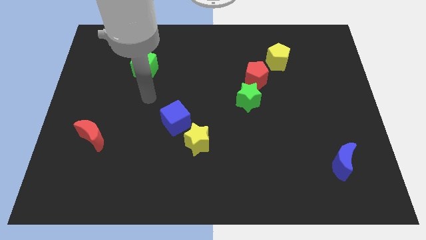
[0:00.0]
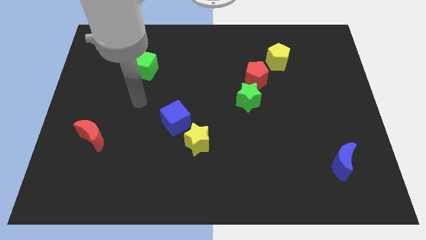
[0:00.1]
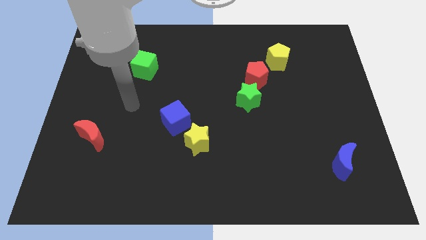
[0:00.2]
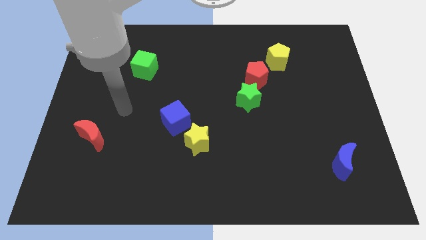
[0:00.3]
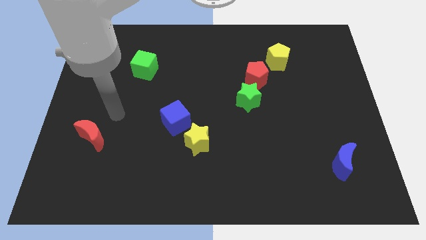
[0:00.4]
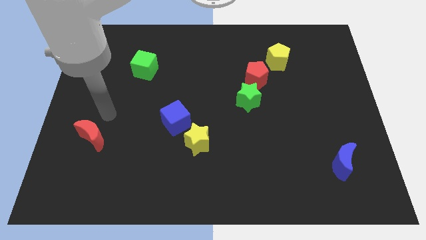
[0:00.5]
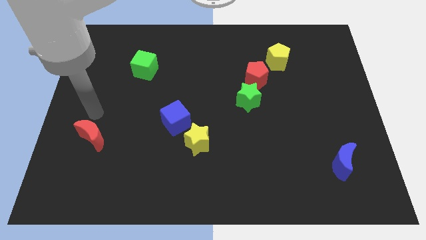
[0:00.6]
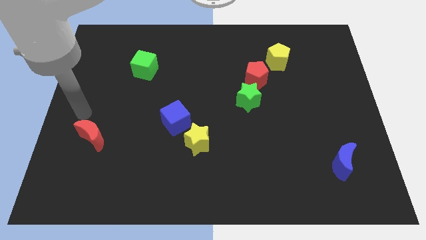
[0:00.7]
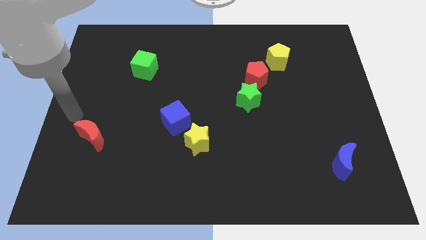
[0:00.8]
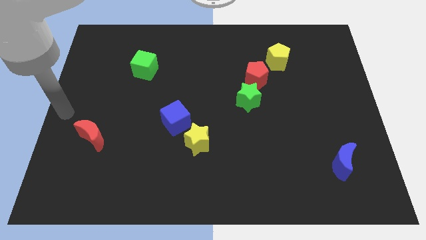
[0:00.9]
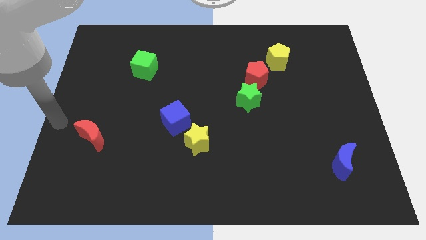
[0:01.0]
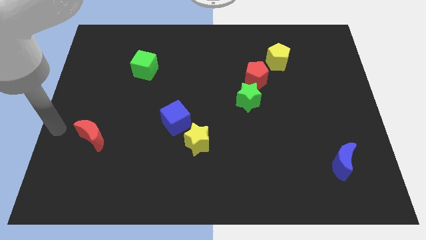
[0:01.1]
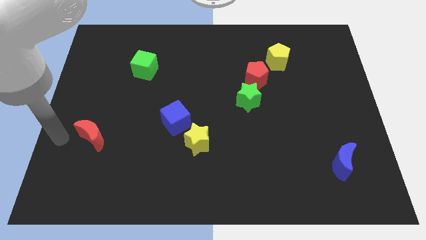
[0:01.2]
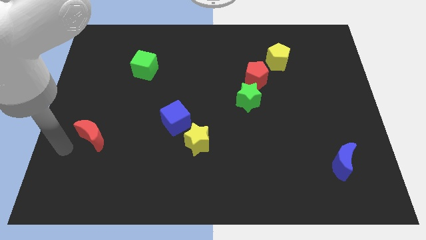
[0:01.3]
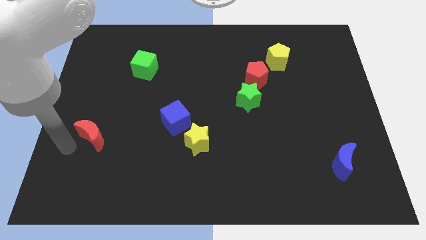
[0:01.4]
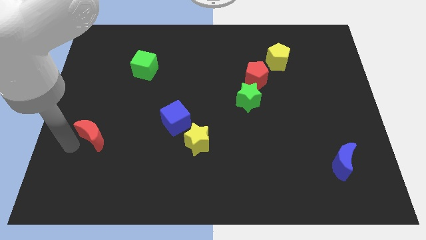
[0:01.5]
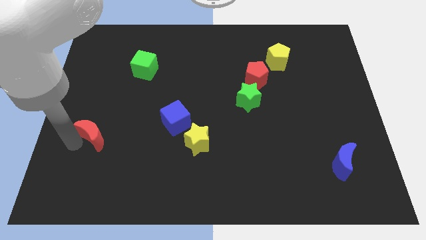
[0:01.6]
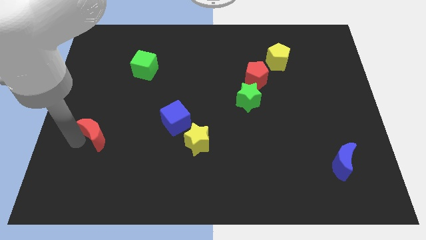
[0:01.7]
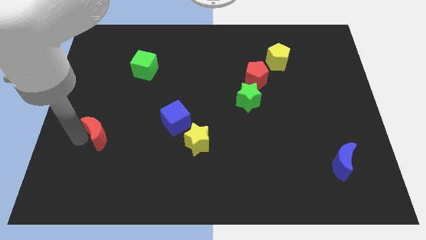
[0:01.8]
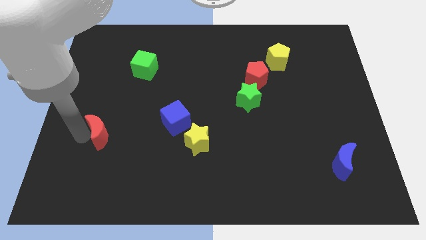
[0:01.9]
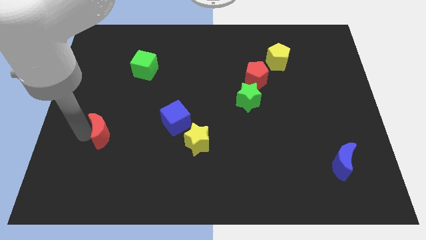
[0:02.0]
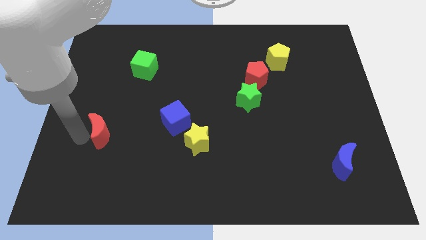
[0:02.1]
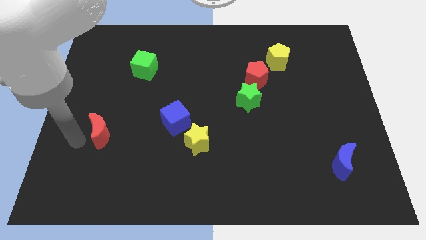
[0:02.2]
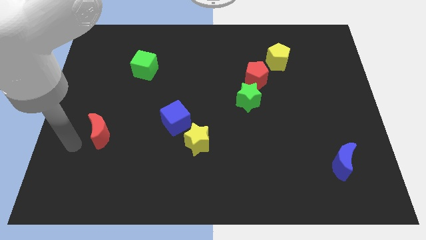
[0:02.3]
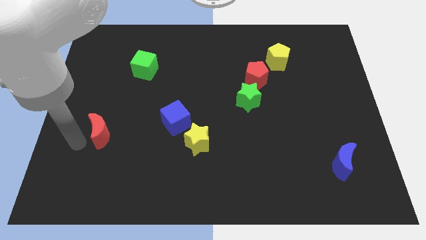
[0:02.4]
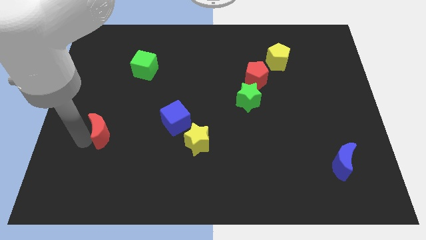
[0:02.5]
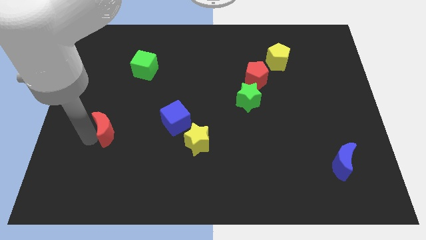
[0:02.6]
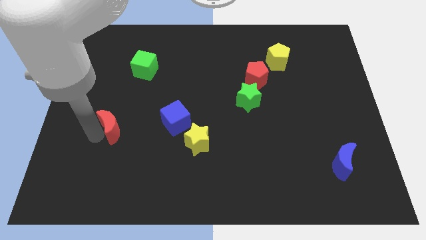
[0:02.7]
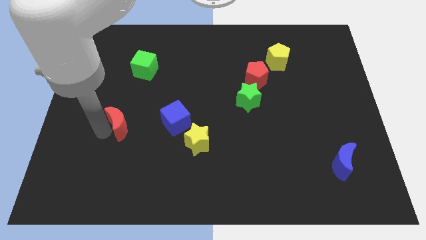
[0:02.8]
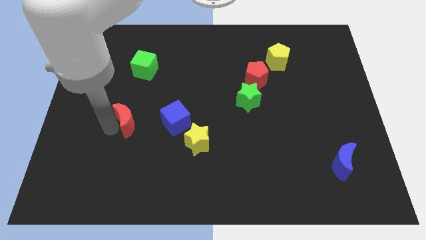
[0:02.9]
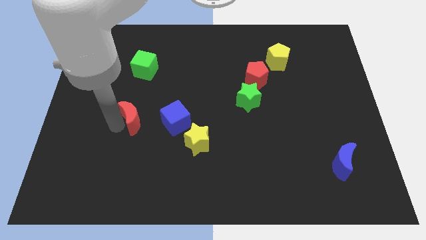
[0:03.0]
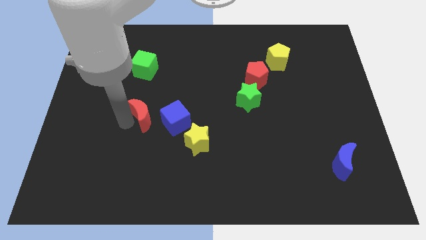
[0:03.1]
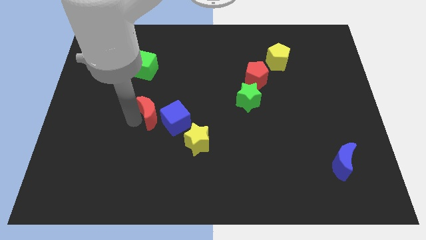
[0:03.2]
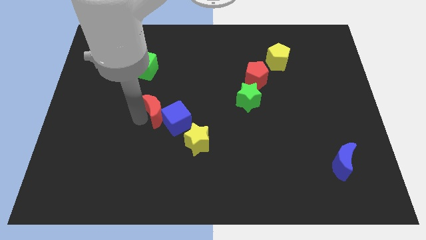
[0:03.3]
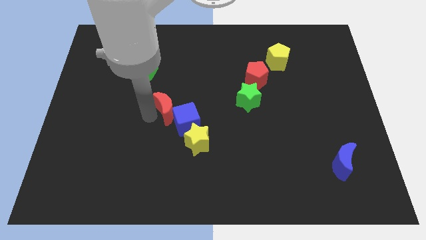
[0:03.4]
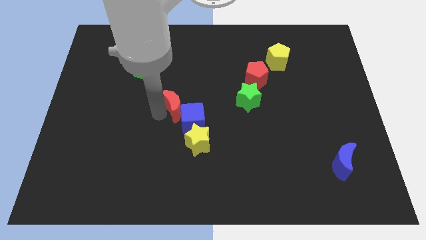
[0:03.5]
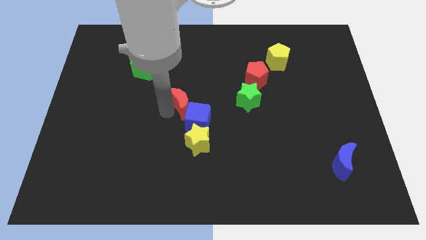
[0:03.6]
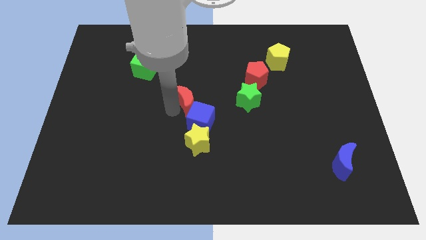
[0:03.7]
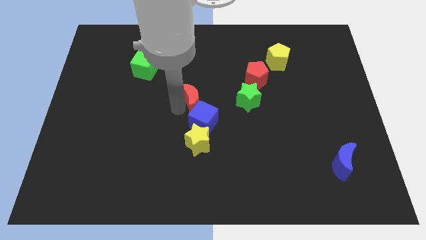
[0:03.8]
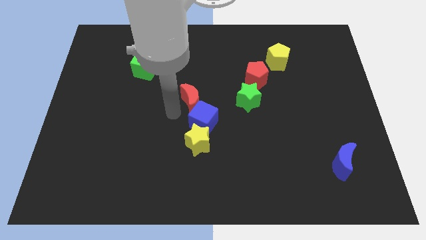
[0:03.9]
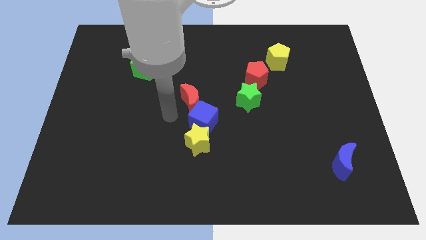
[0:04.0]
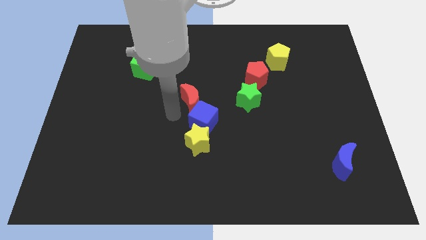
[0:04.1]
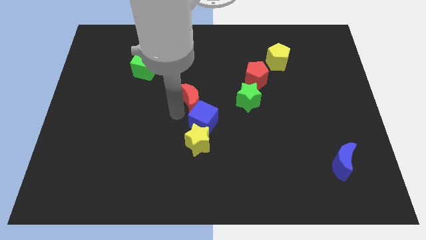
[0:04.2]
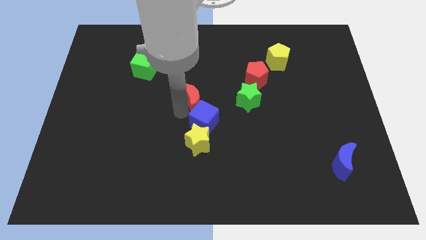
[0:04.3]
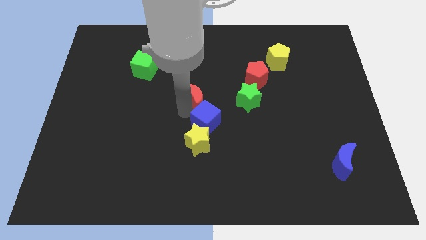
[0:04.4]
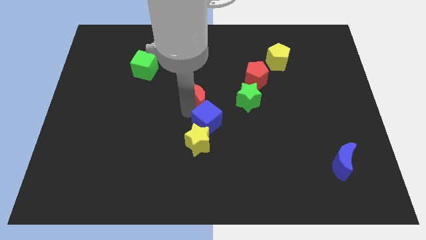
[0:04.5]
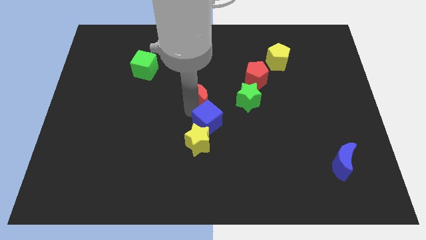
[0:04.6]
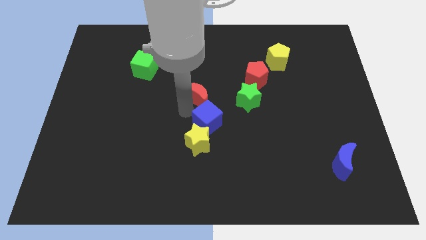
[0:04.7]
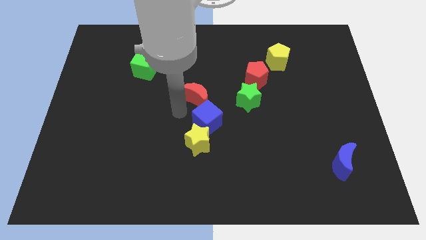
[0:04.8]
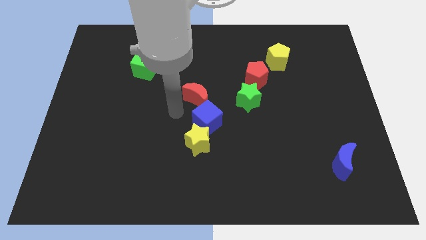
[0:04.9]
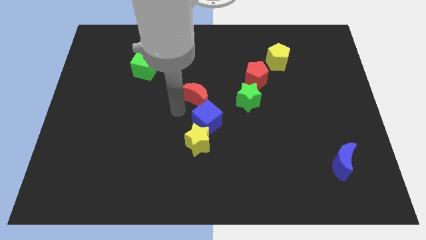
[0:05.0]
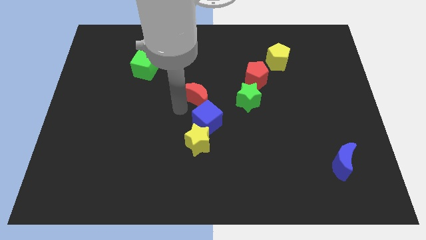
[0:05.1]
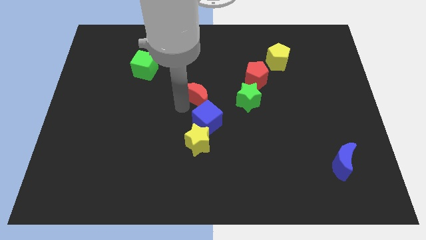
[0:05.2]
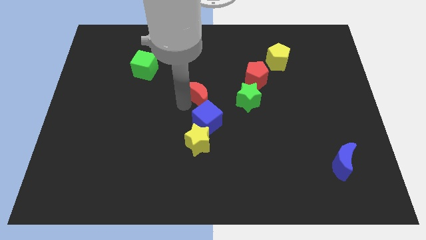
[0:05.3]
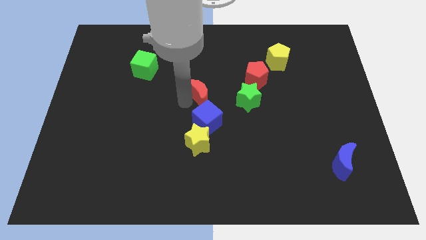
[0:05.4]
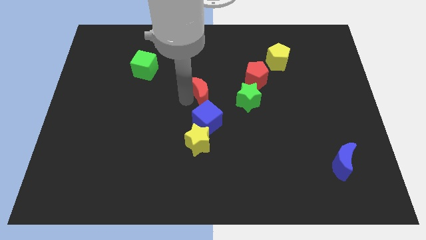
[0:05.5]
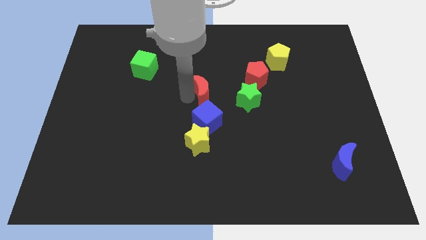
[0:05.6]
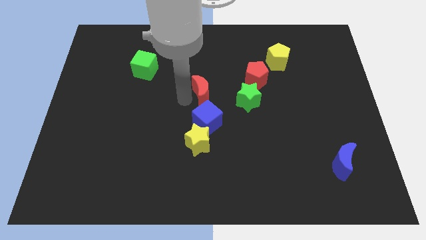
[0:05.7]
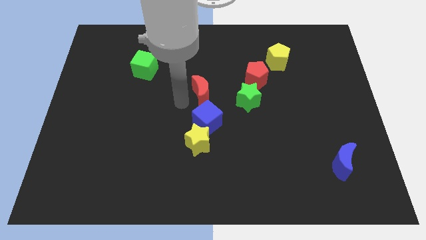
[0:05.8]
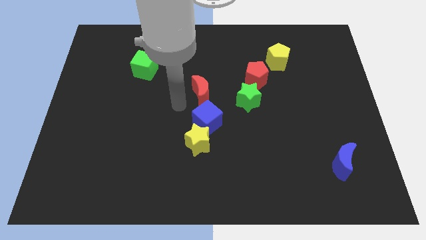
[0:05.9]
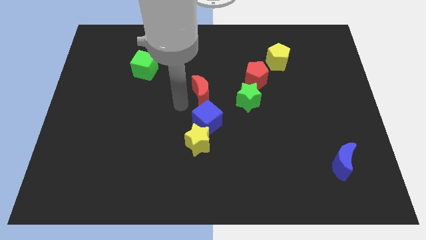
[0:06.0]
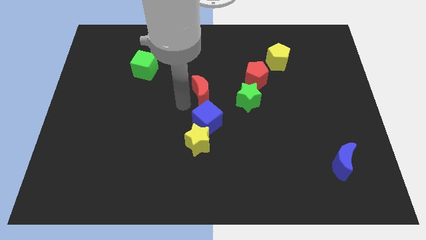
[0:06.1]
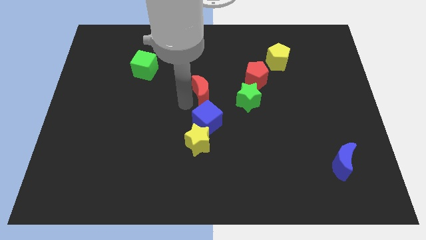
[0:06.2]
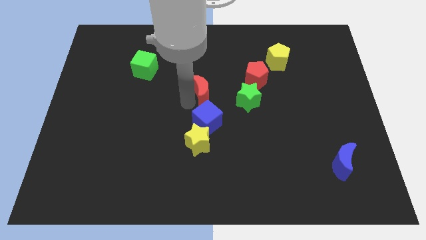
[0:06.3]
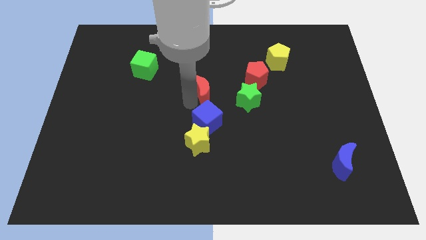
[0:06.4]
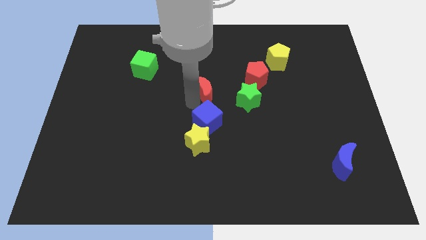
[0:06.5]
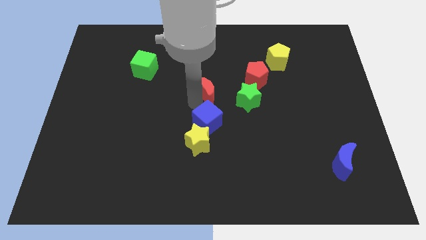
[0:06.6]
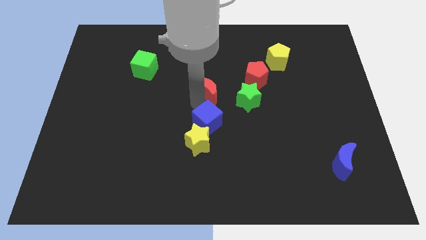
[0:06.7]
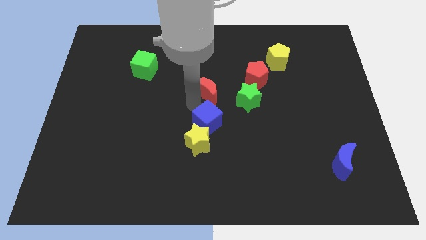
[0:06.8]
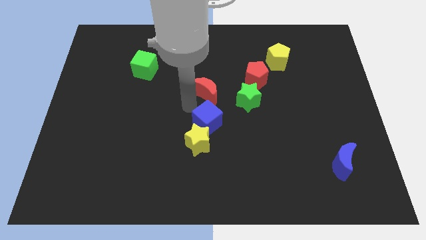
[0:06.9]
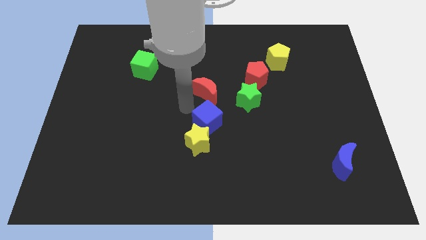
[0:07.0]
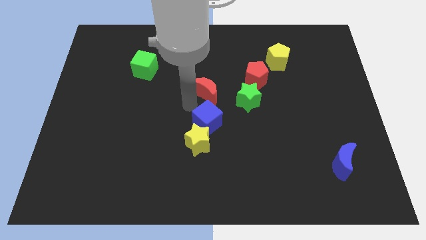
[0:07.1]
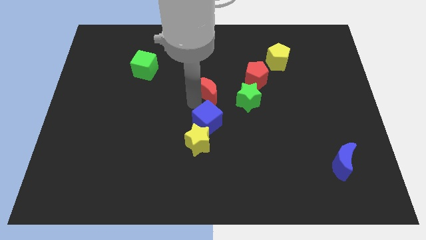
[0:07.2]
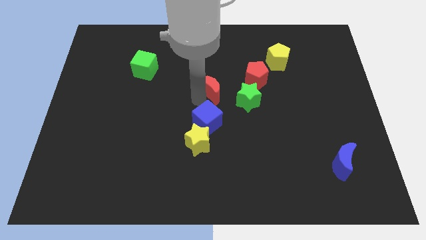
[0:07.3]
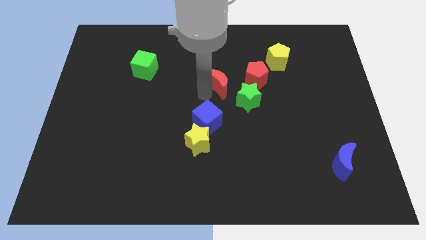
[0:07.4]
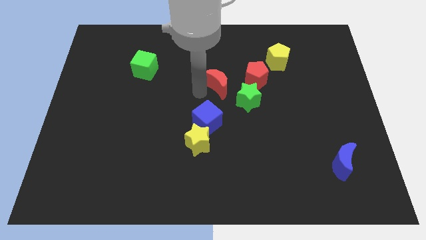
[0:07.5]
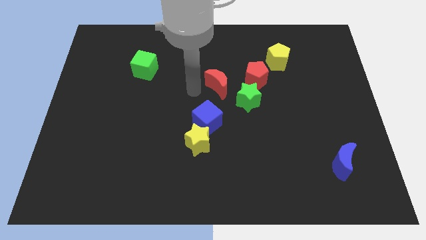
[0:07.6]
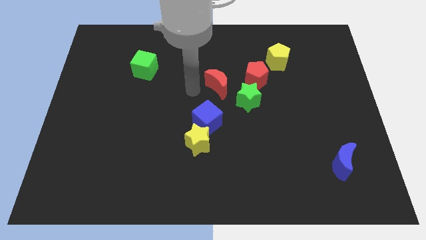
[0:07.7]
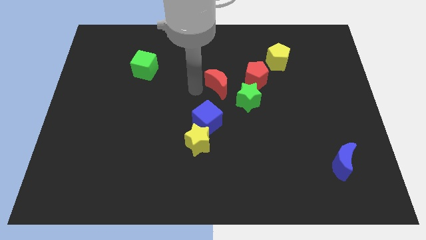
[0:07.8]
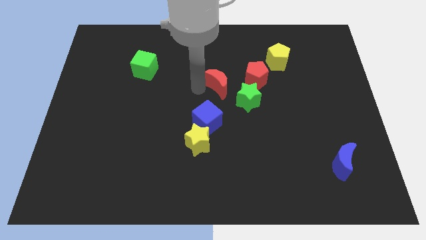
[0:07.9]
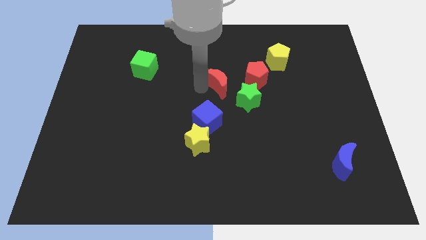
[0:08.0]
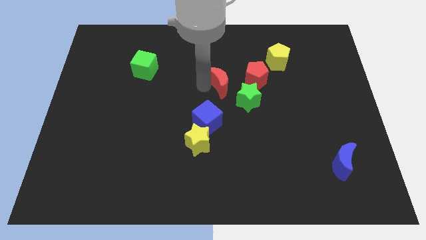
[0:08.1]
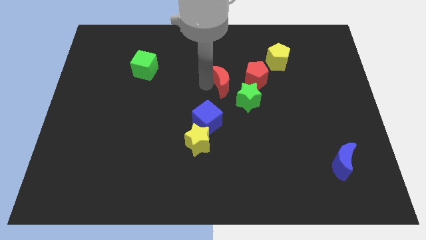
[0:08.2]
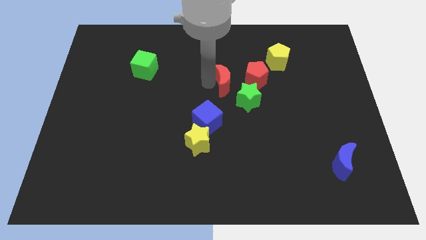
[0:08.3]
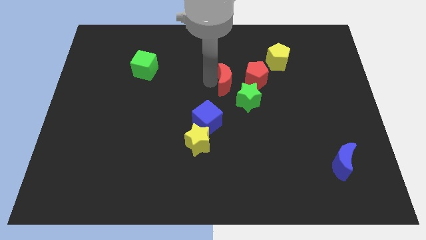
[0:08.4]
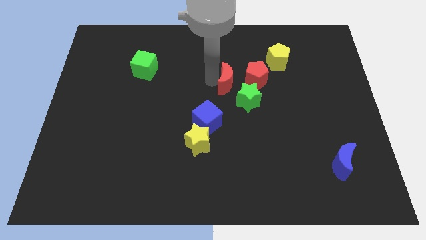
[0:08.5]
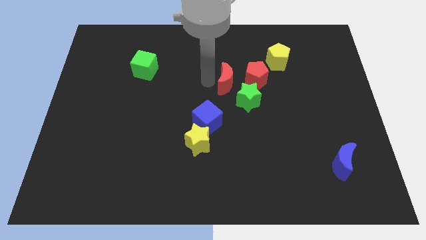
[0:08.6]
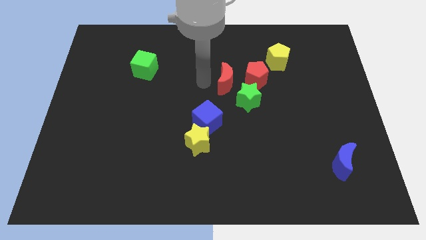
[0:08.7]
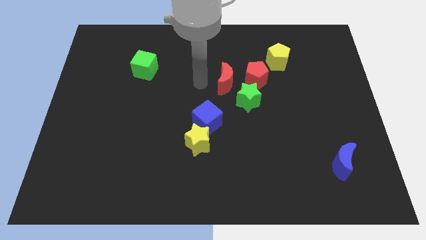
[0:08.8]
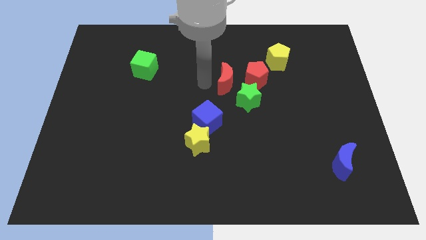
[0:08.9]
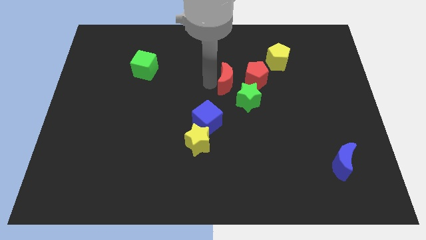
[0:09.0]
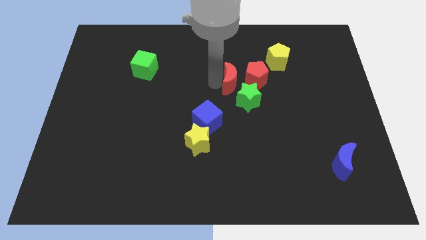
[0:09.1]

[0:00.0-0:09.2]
put the red moon next to the red pentagon
